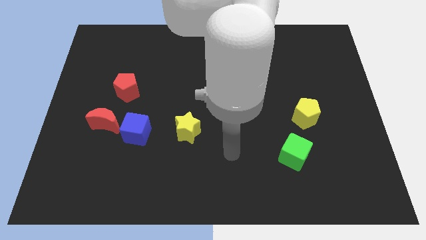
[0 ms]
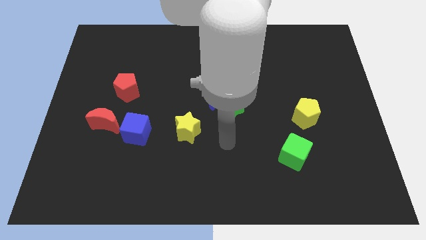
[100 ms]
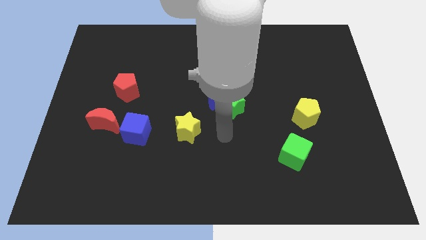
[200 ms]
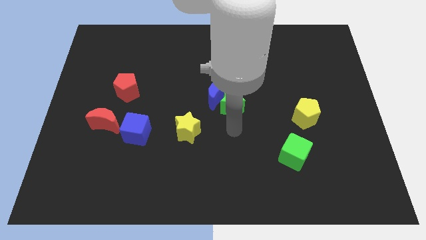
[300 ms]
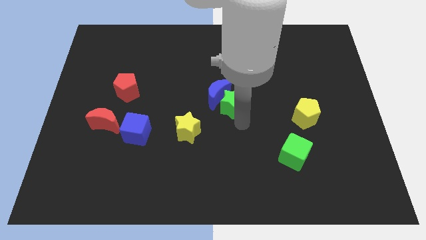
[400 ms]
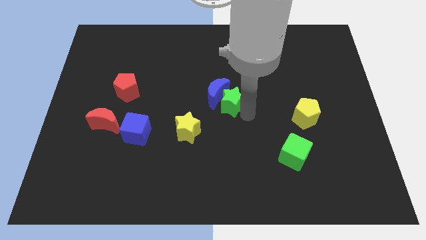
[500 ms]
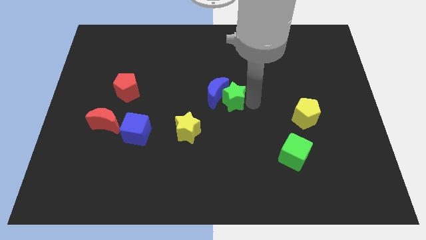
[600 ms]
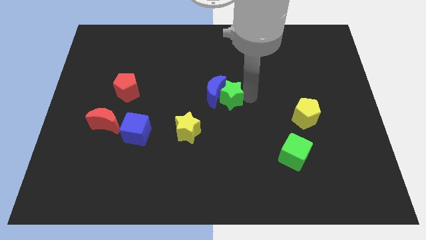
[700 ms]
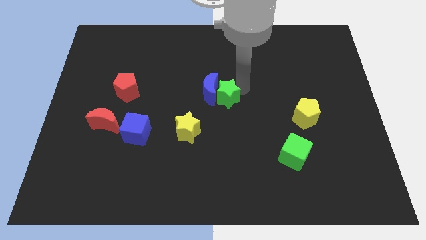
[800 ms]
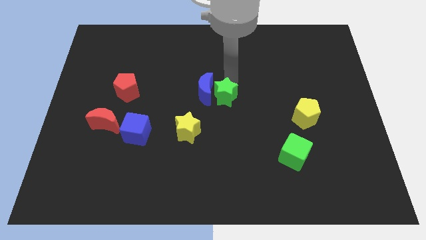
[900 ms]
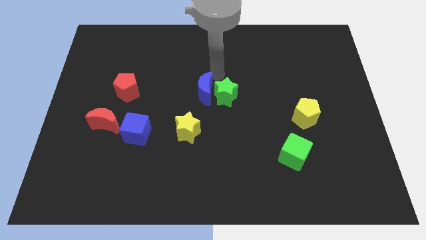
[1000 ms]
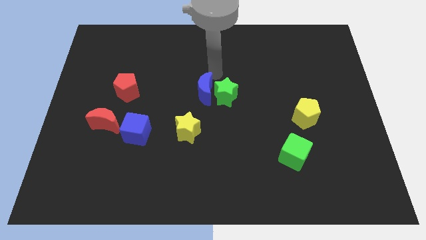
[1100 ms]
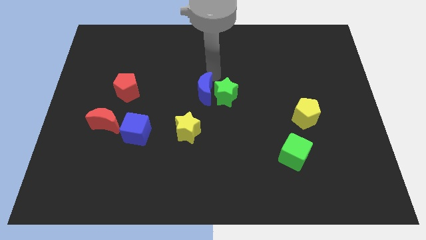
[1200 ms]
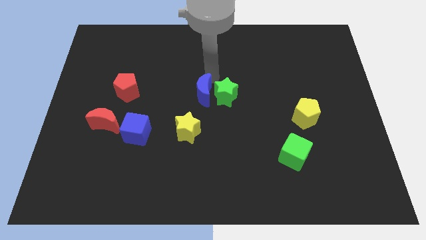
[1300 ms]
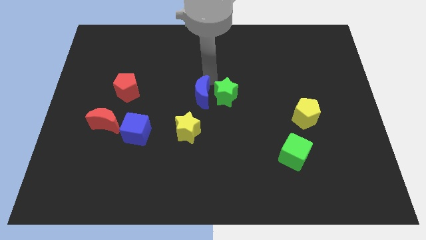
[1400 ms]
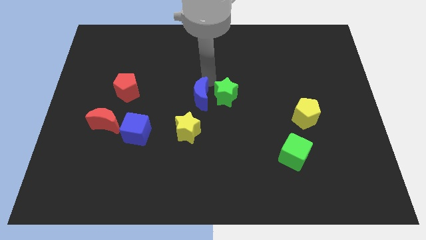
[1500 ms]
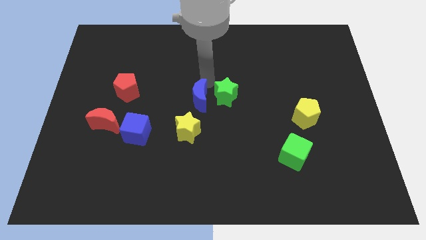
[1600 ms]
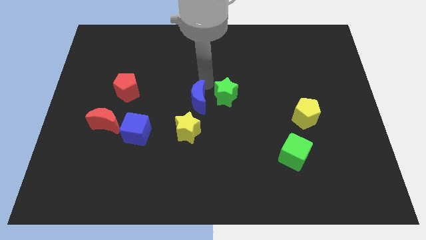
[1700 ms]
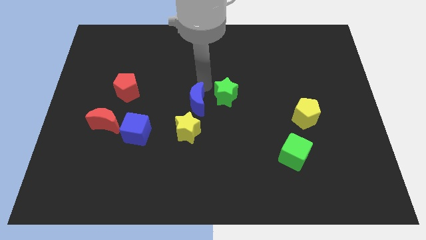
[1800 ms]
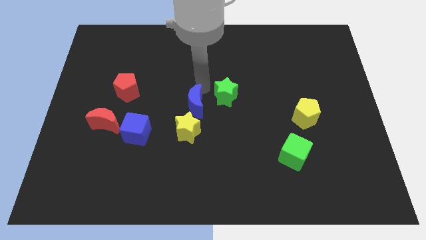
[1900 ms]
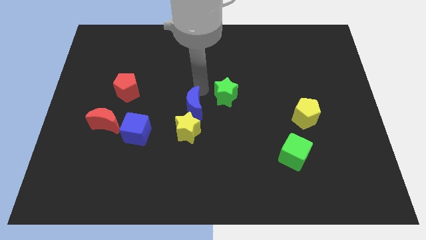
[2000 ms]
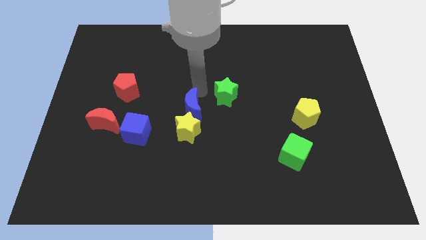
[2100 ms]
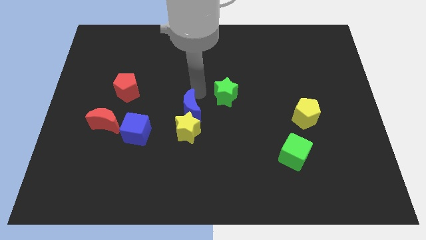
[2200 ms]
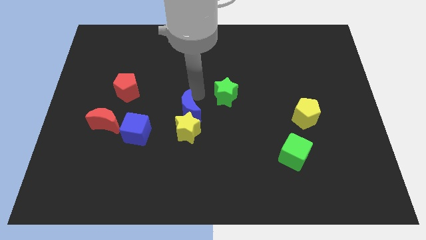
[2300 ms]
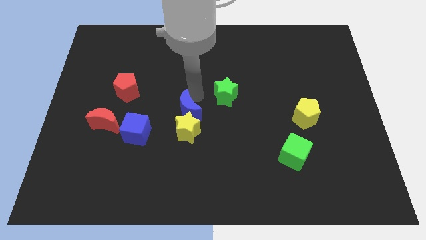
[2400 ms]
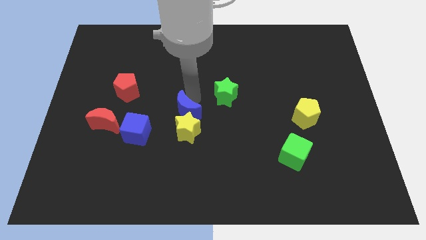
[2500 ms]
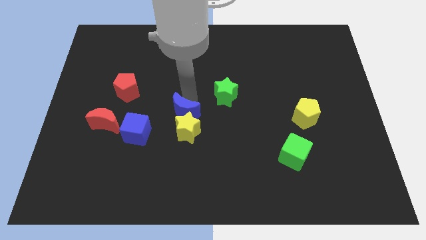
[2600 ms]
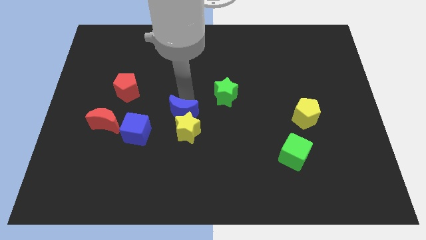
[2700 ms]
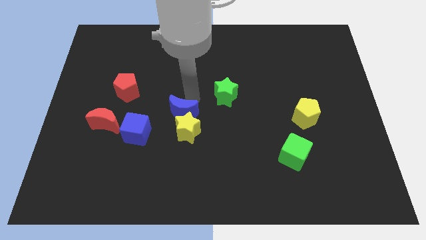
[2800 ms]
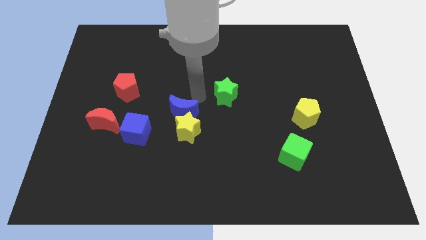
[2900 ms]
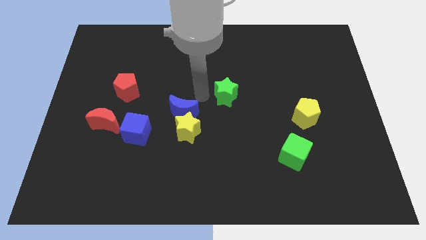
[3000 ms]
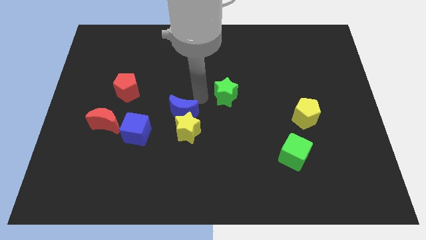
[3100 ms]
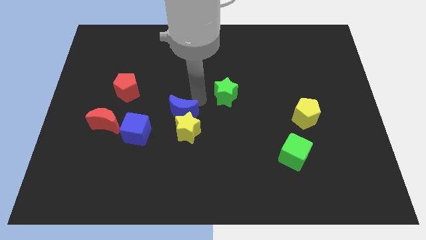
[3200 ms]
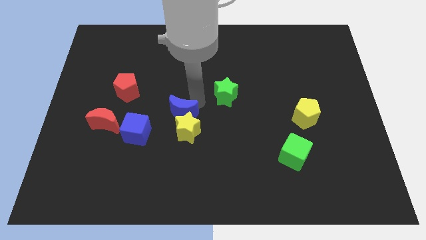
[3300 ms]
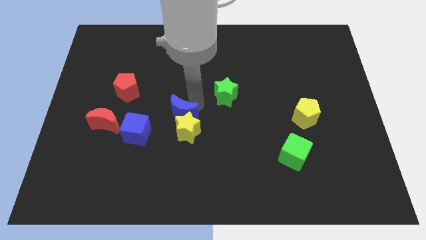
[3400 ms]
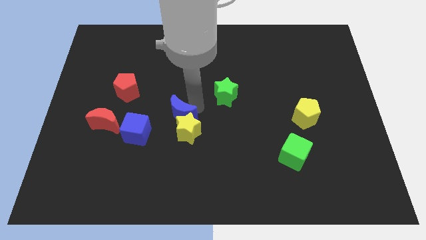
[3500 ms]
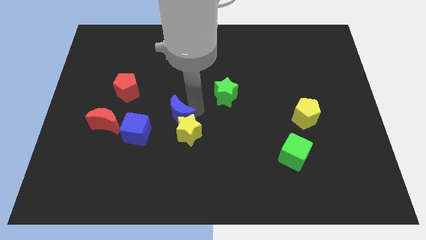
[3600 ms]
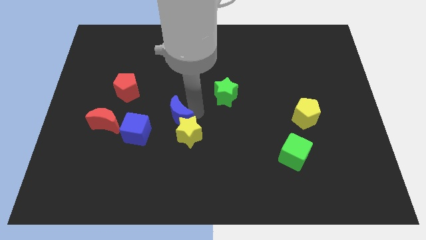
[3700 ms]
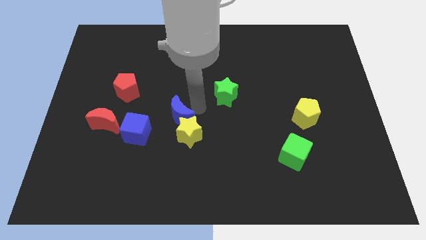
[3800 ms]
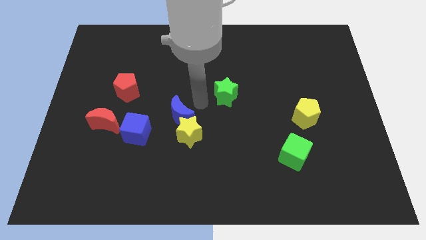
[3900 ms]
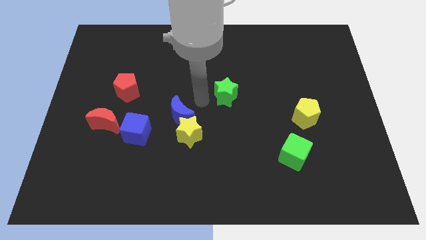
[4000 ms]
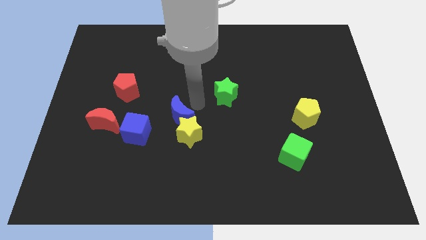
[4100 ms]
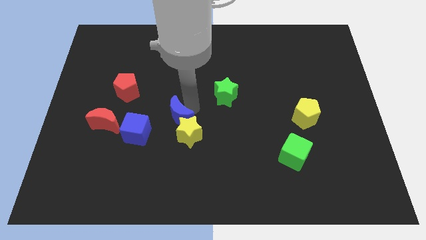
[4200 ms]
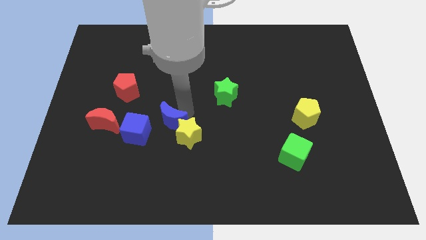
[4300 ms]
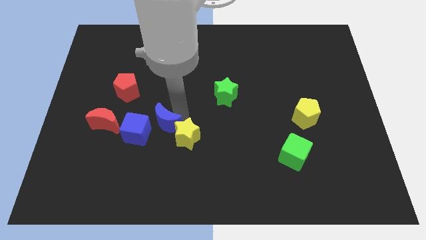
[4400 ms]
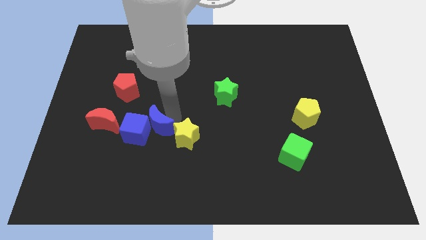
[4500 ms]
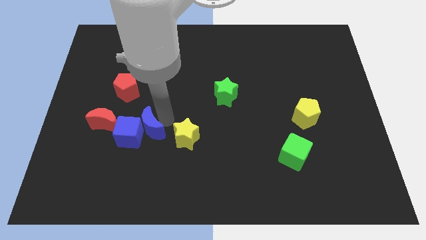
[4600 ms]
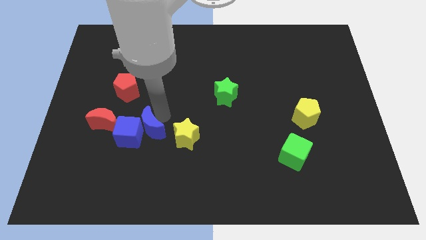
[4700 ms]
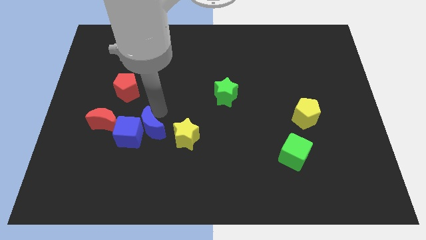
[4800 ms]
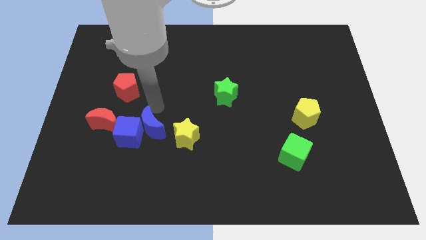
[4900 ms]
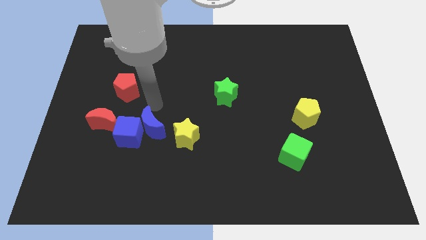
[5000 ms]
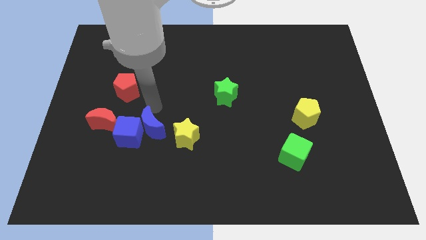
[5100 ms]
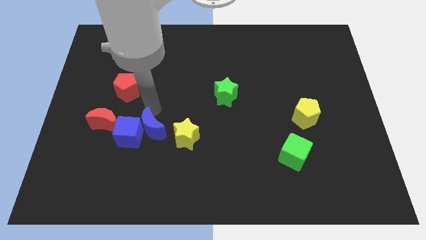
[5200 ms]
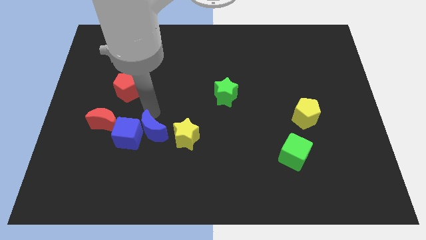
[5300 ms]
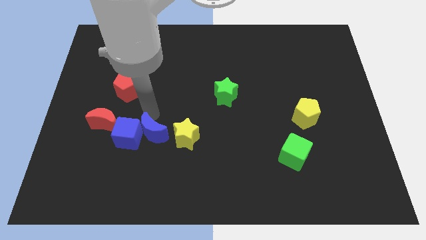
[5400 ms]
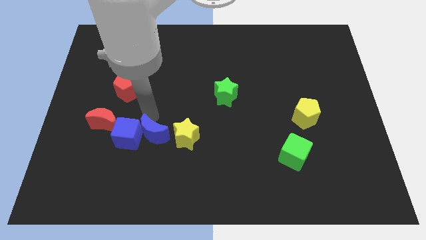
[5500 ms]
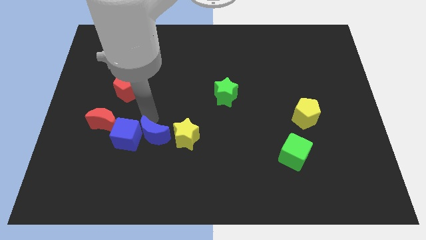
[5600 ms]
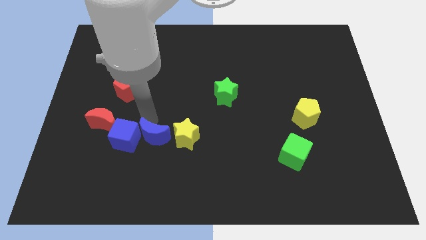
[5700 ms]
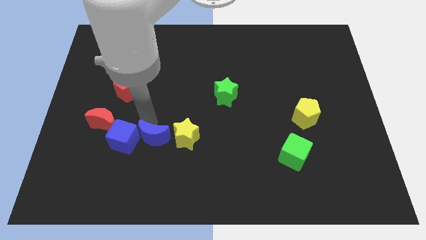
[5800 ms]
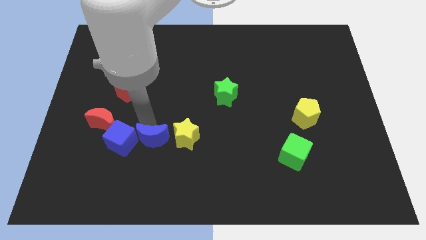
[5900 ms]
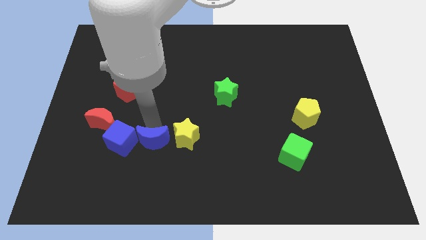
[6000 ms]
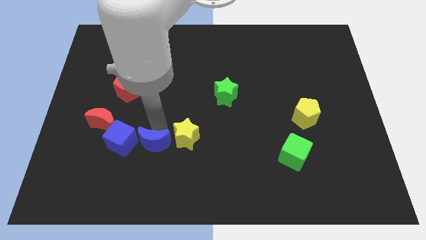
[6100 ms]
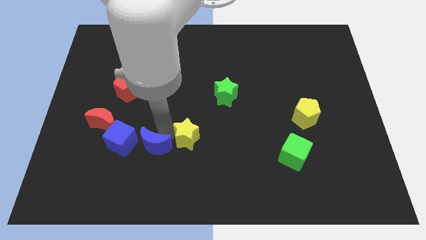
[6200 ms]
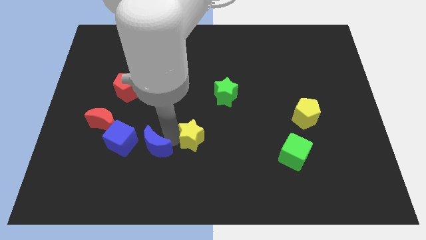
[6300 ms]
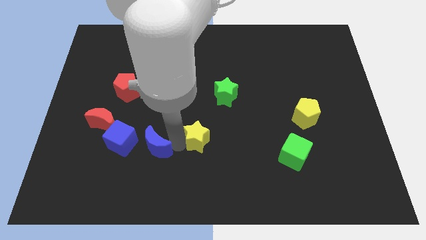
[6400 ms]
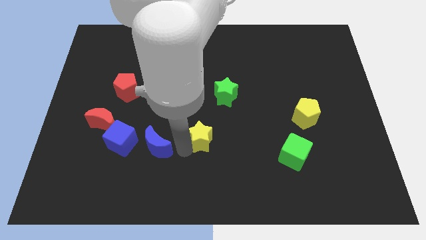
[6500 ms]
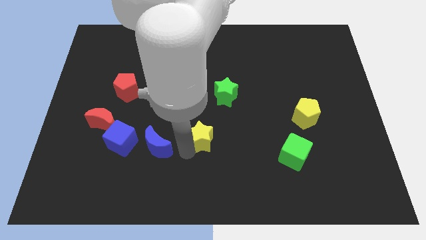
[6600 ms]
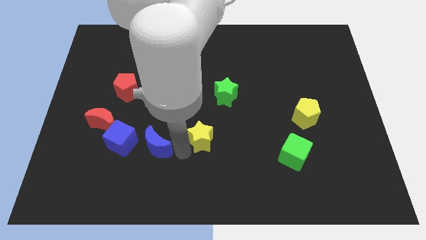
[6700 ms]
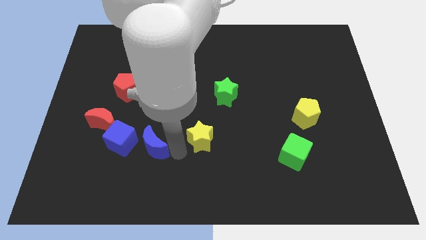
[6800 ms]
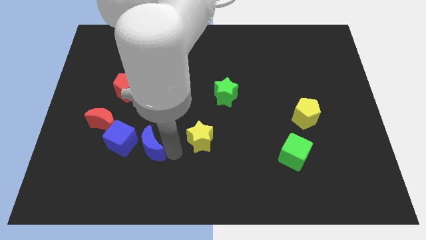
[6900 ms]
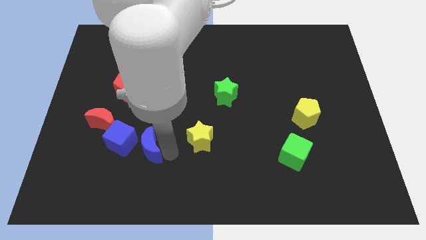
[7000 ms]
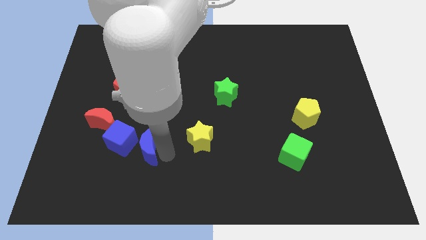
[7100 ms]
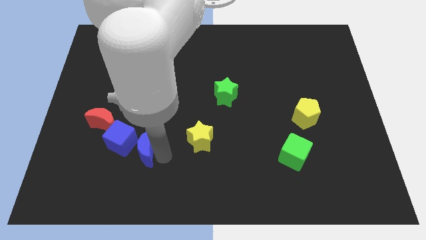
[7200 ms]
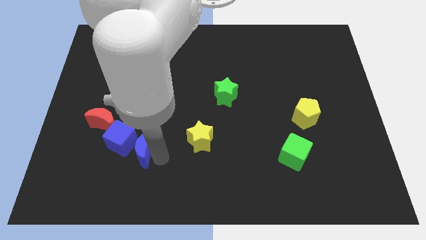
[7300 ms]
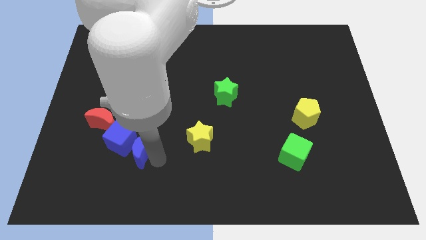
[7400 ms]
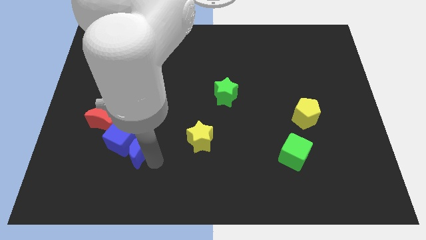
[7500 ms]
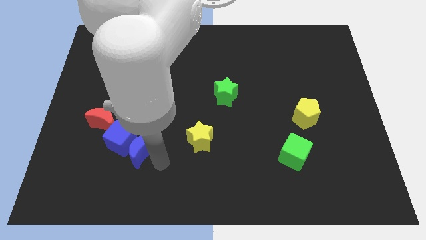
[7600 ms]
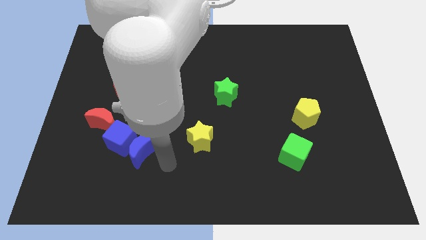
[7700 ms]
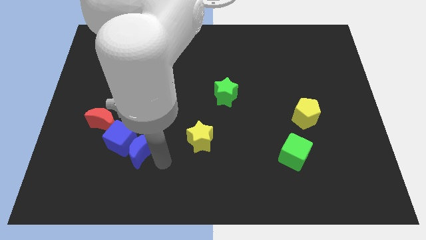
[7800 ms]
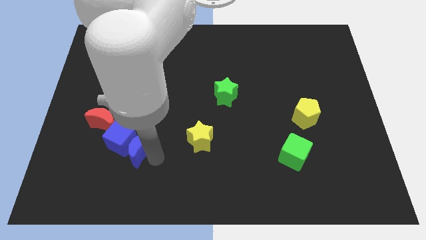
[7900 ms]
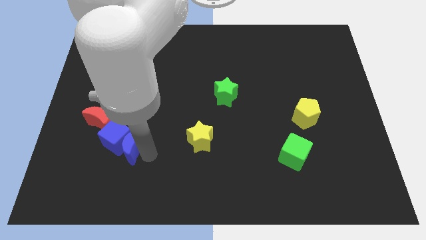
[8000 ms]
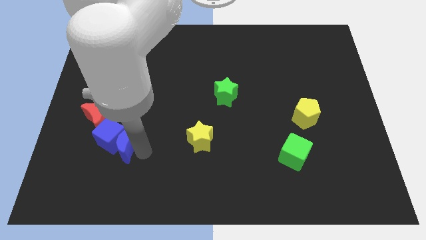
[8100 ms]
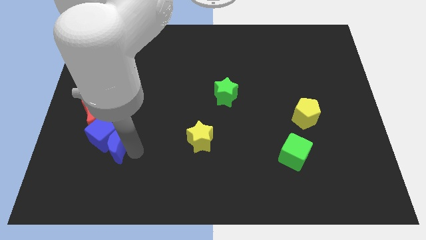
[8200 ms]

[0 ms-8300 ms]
slide the blue moon below the red pentagon
